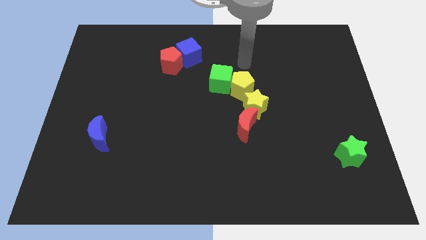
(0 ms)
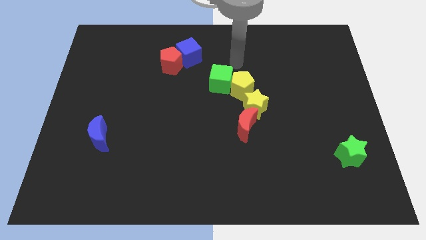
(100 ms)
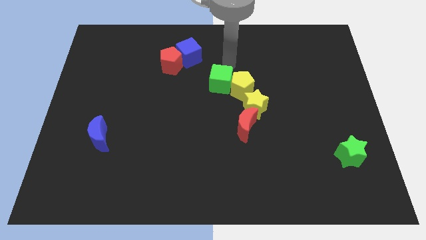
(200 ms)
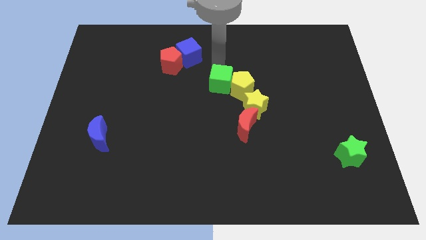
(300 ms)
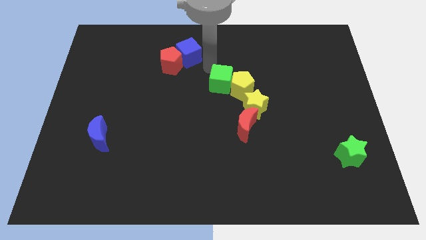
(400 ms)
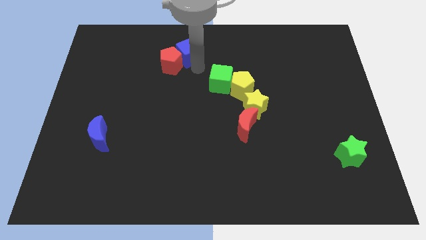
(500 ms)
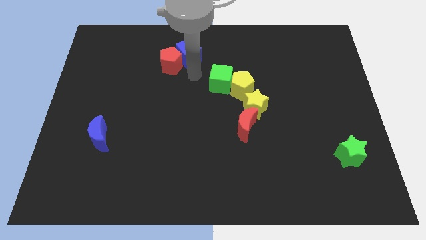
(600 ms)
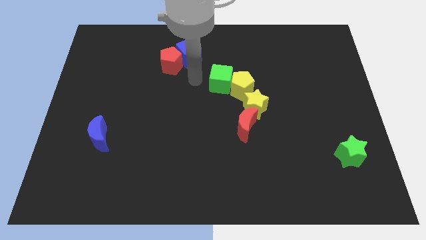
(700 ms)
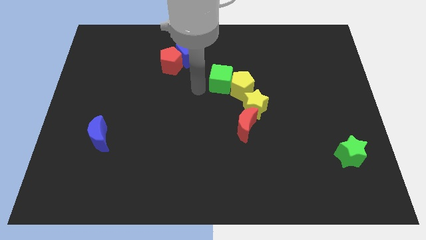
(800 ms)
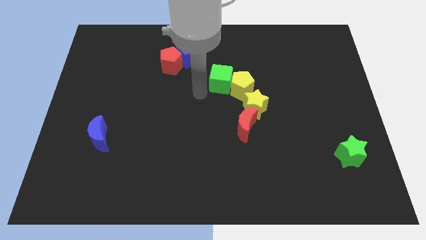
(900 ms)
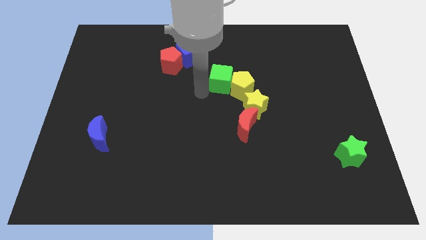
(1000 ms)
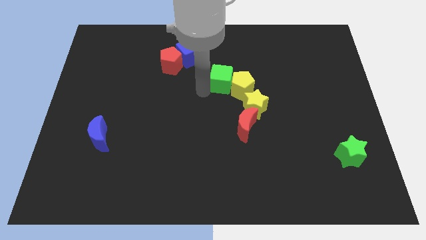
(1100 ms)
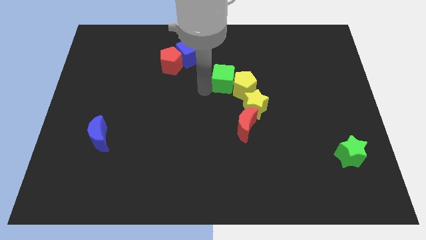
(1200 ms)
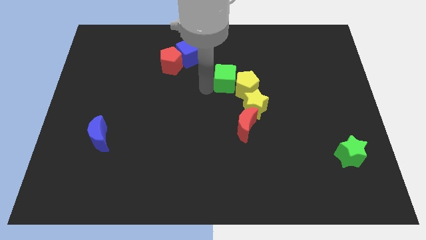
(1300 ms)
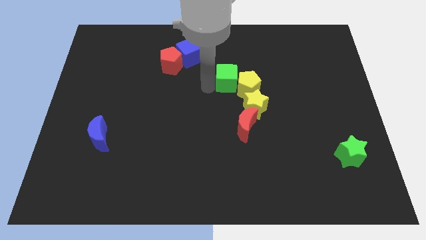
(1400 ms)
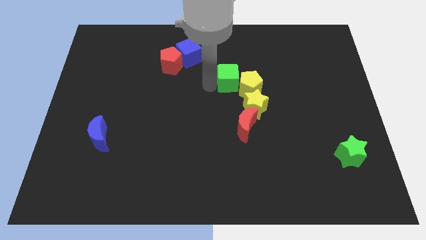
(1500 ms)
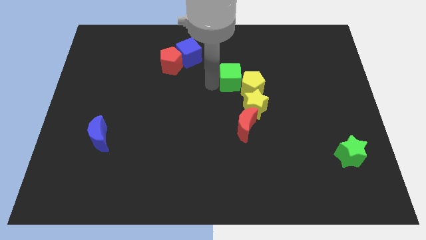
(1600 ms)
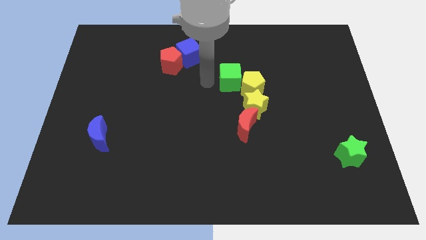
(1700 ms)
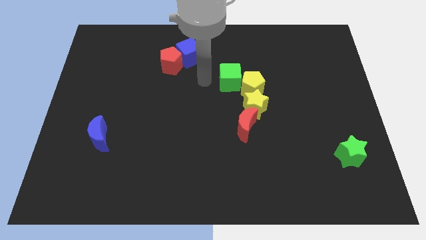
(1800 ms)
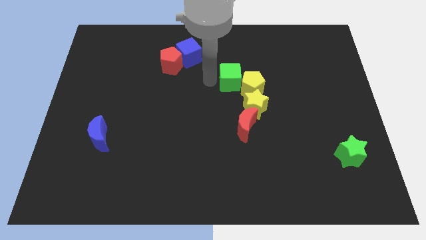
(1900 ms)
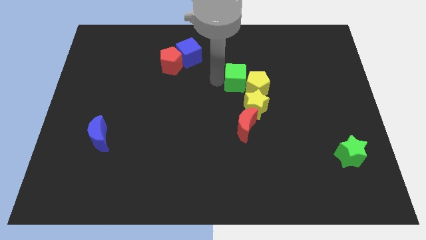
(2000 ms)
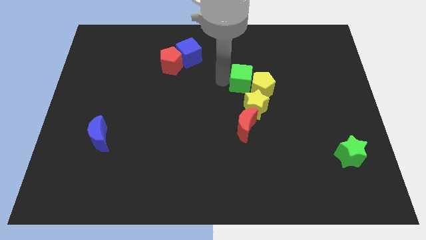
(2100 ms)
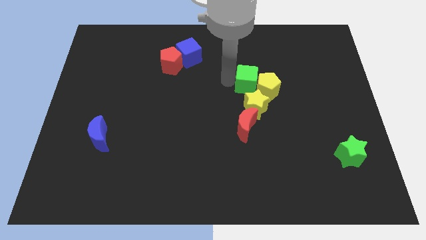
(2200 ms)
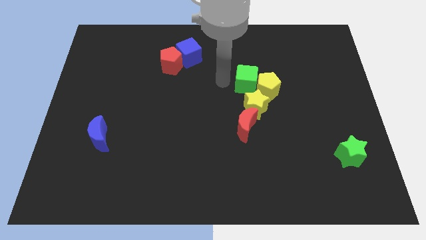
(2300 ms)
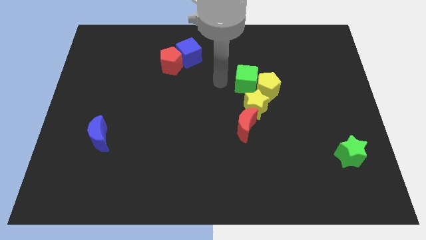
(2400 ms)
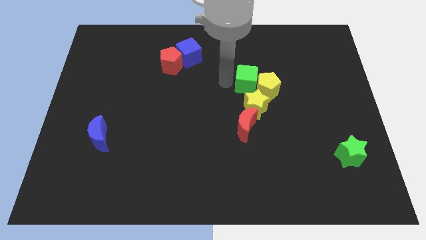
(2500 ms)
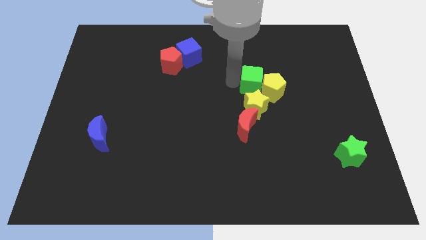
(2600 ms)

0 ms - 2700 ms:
slightly move the green cube right

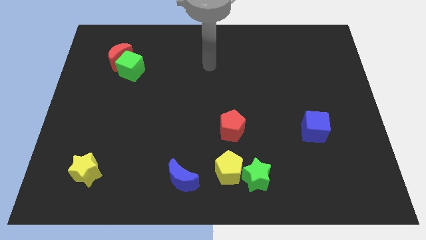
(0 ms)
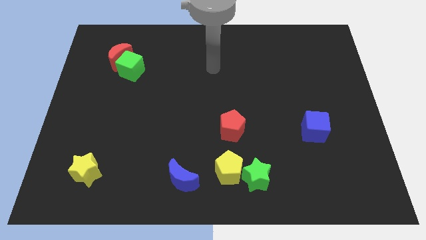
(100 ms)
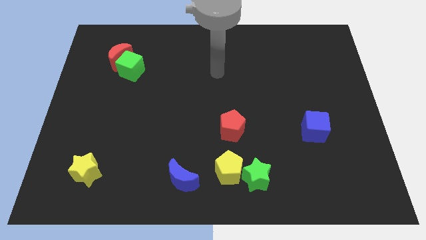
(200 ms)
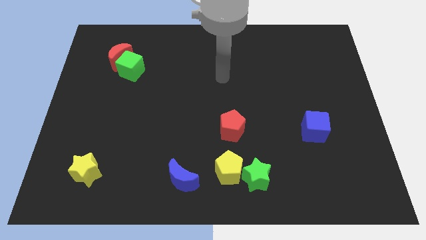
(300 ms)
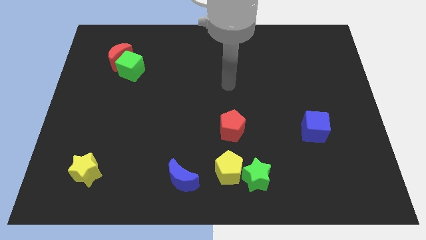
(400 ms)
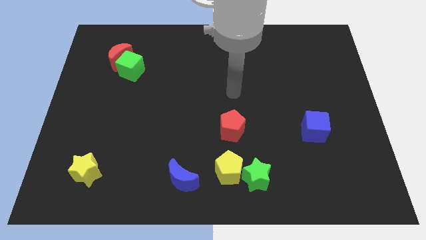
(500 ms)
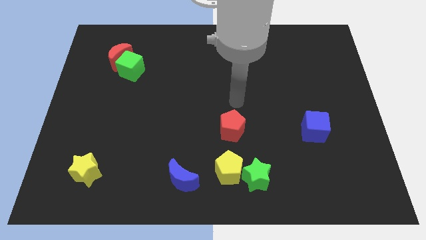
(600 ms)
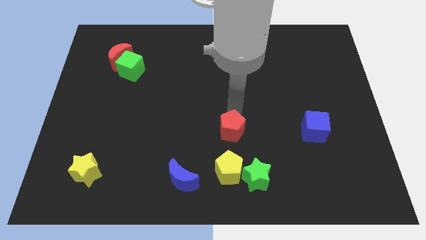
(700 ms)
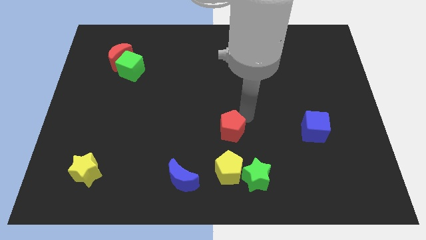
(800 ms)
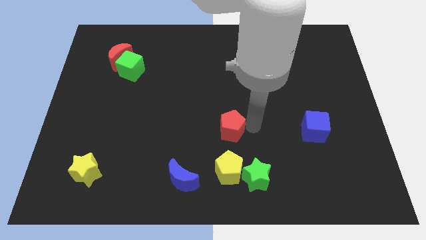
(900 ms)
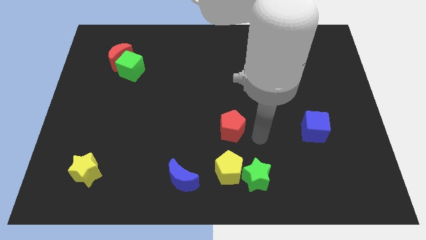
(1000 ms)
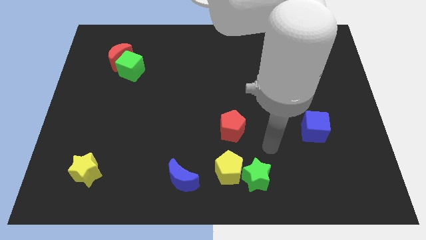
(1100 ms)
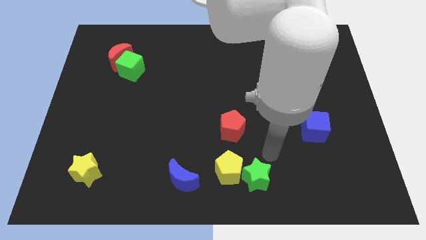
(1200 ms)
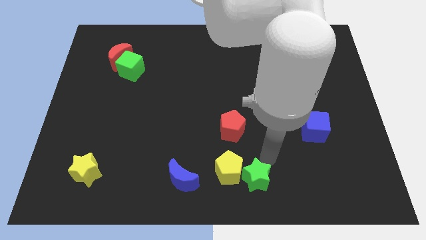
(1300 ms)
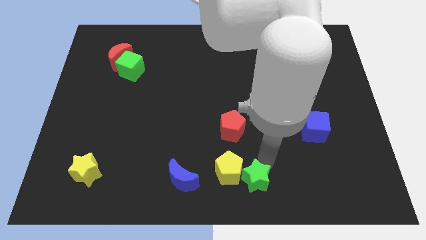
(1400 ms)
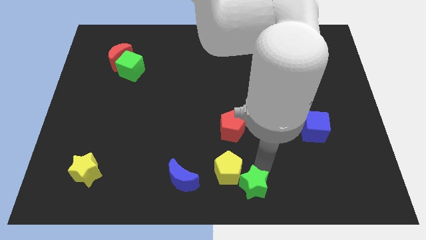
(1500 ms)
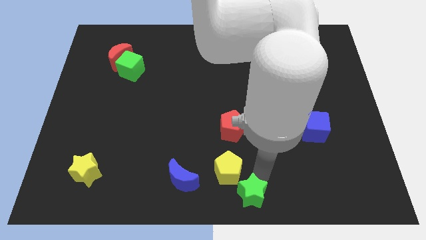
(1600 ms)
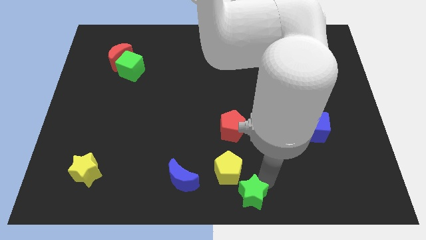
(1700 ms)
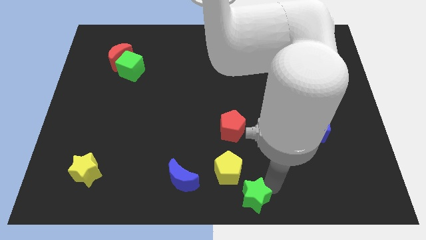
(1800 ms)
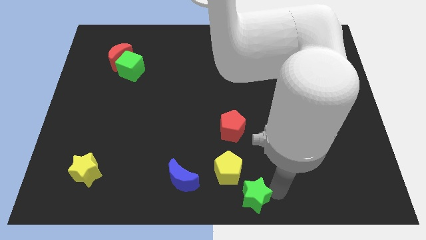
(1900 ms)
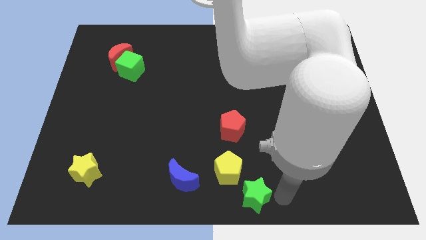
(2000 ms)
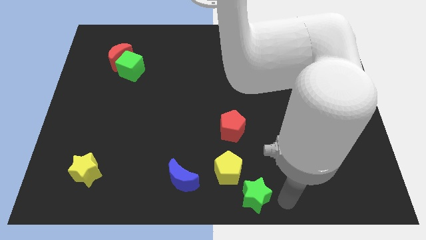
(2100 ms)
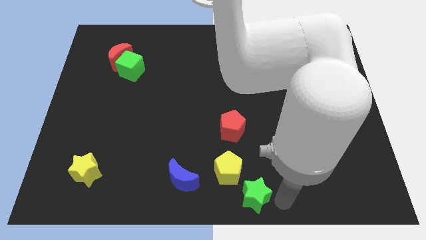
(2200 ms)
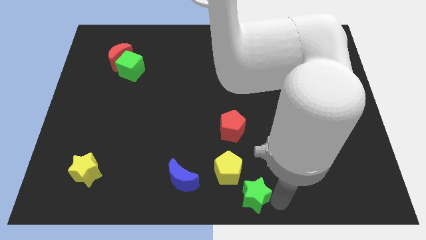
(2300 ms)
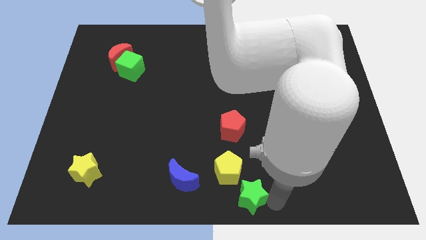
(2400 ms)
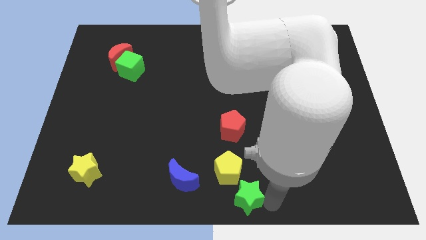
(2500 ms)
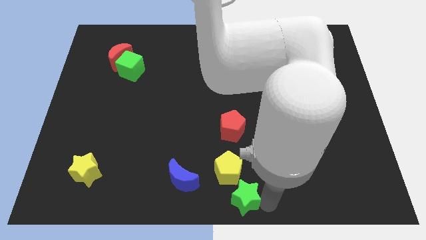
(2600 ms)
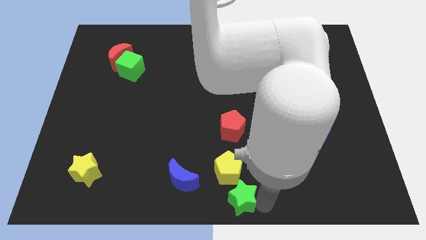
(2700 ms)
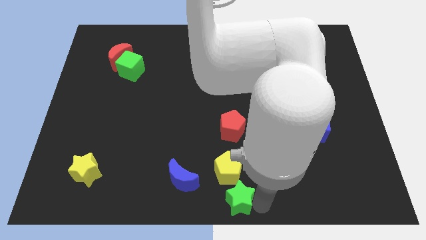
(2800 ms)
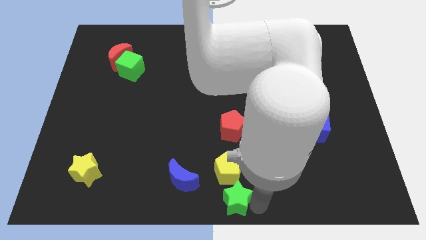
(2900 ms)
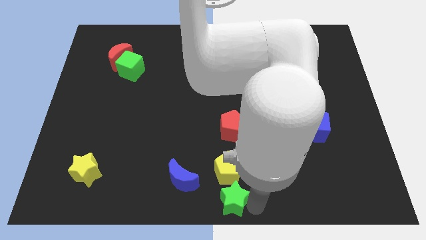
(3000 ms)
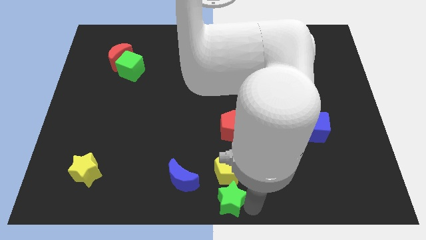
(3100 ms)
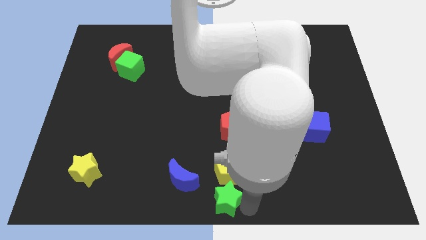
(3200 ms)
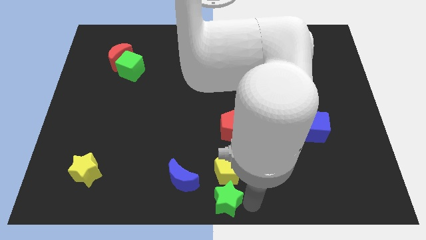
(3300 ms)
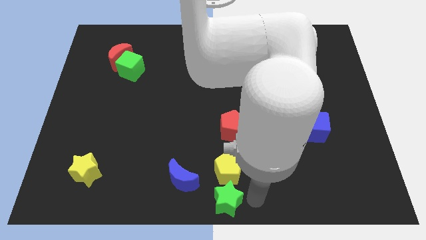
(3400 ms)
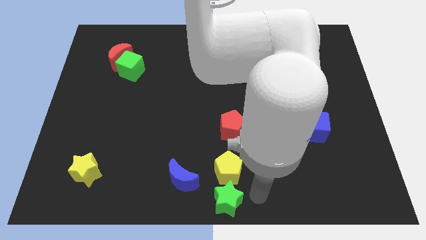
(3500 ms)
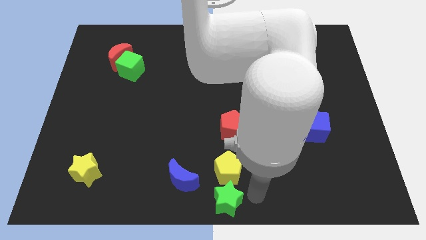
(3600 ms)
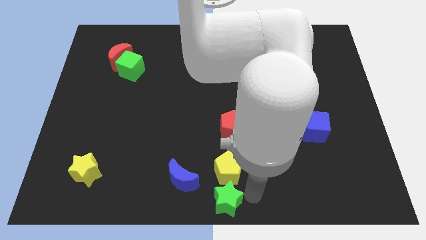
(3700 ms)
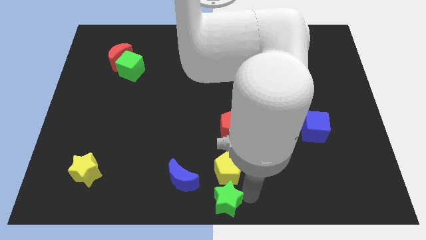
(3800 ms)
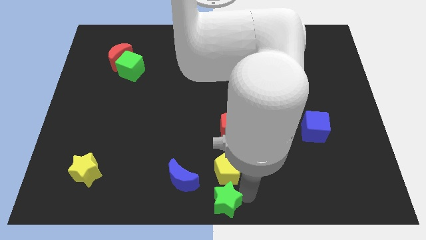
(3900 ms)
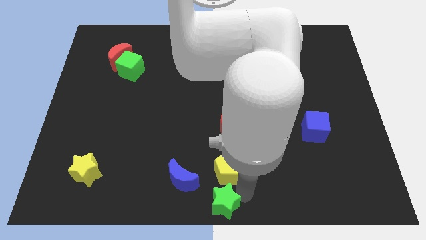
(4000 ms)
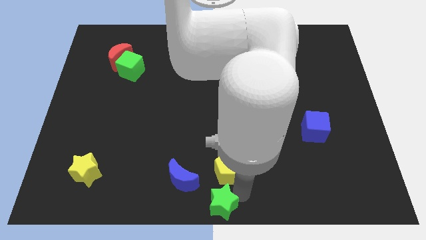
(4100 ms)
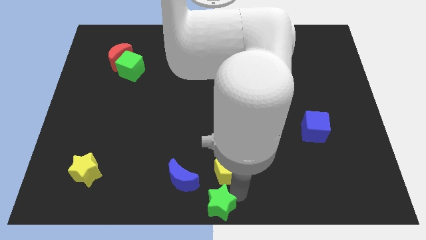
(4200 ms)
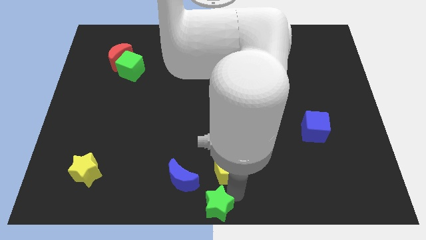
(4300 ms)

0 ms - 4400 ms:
push the green star a bit left

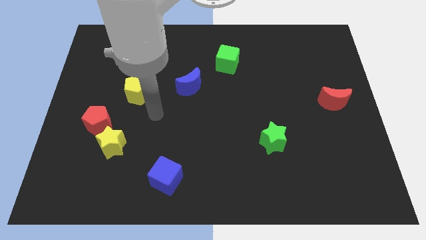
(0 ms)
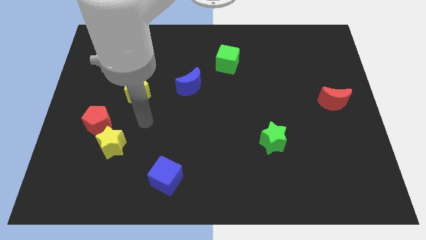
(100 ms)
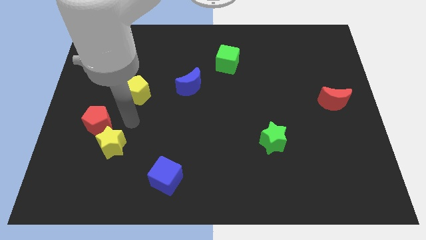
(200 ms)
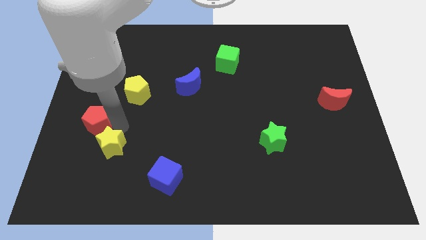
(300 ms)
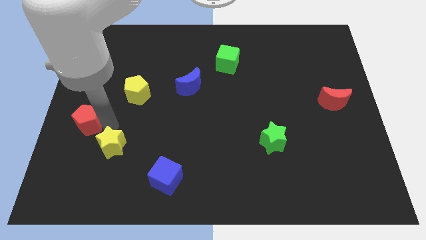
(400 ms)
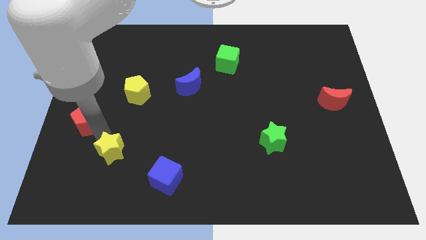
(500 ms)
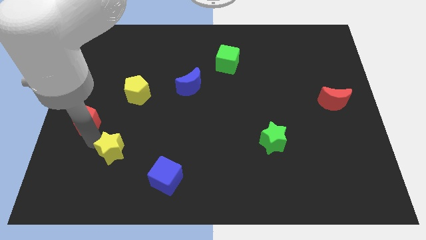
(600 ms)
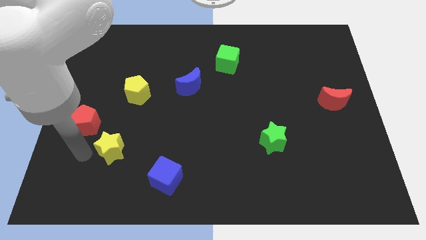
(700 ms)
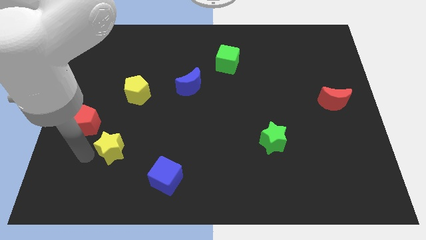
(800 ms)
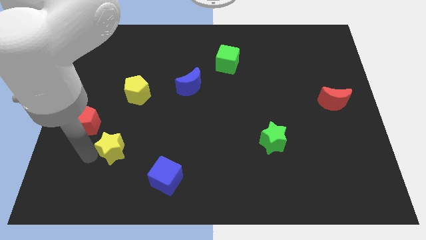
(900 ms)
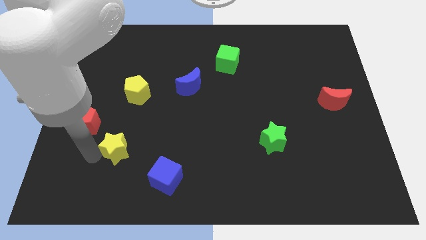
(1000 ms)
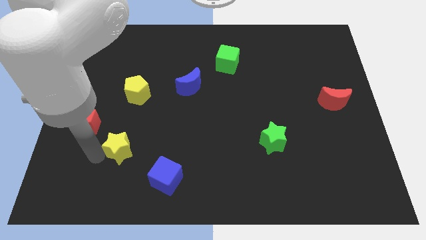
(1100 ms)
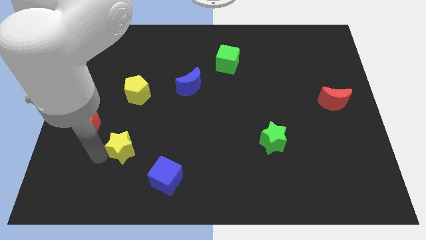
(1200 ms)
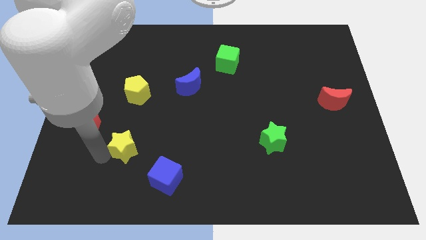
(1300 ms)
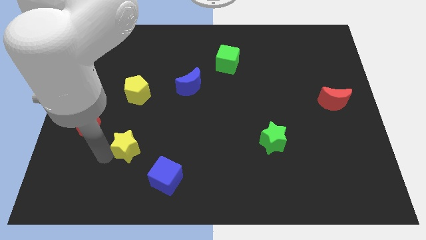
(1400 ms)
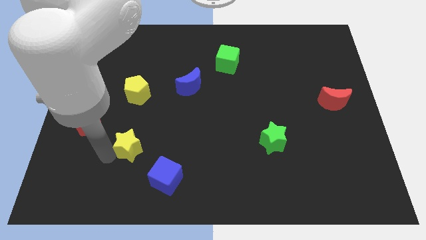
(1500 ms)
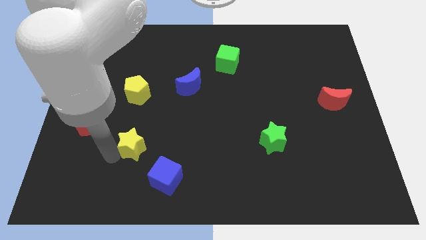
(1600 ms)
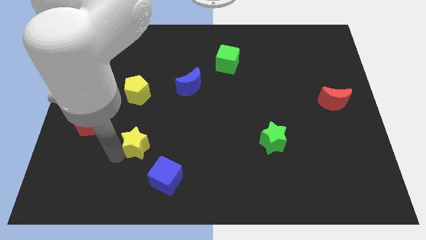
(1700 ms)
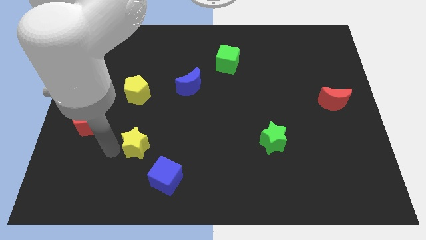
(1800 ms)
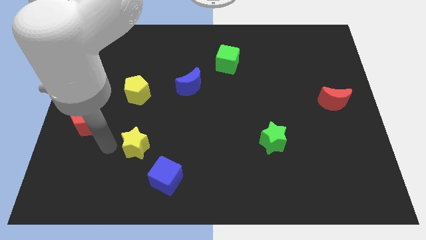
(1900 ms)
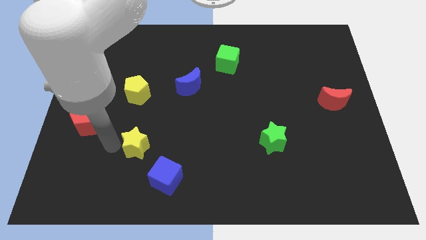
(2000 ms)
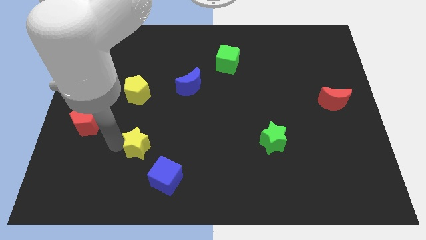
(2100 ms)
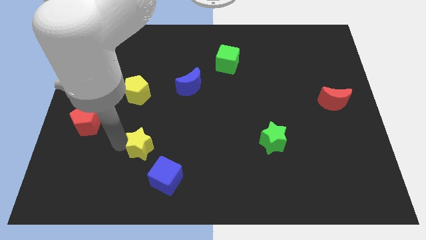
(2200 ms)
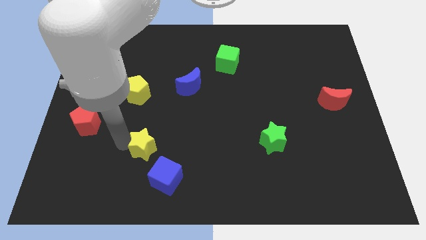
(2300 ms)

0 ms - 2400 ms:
slide the yellow star to the right a little bit
